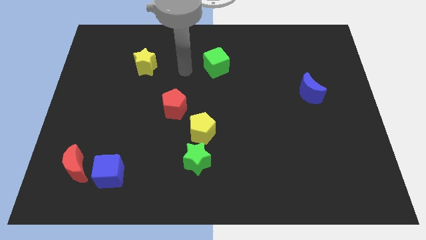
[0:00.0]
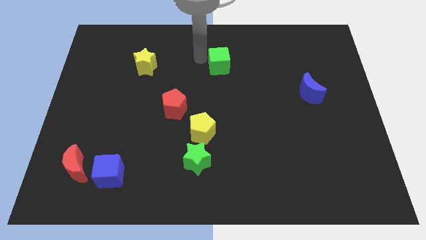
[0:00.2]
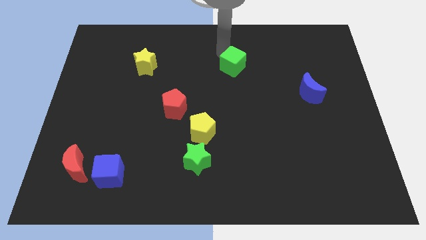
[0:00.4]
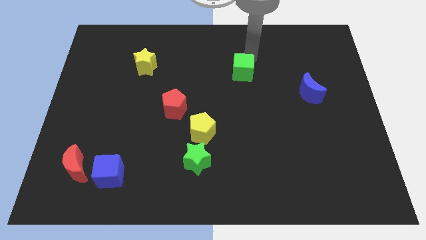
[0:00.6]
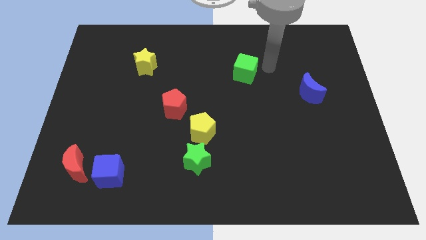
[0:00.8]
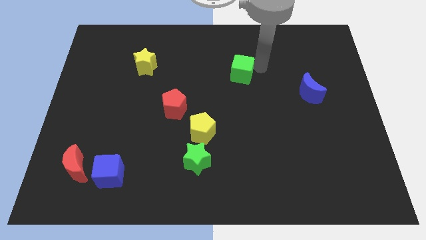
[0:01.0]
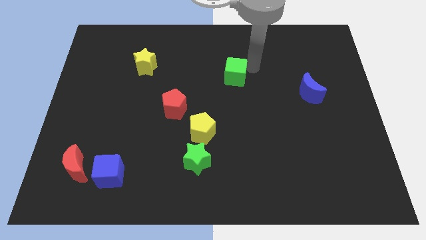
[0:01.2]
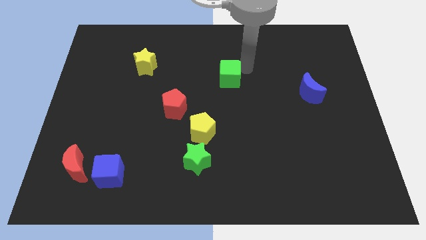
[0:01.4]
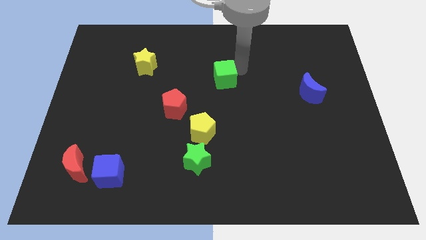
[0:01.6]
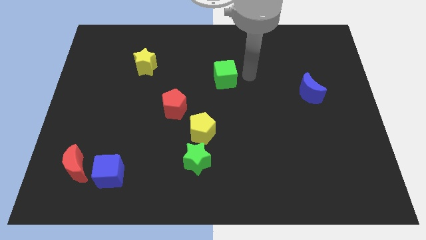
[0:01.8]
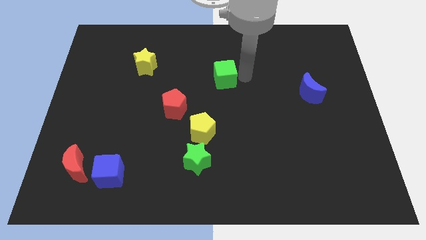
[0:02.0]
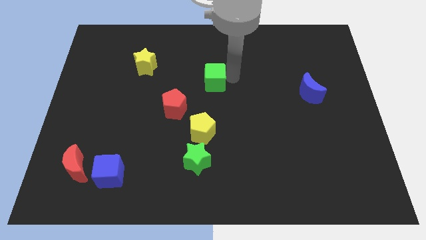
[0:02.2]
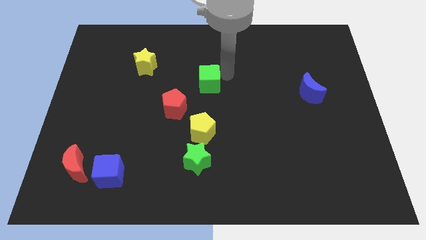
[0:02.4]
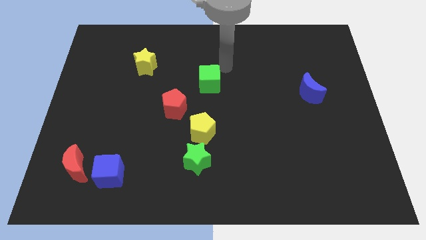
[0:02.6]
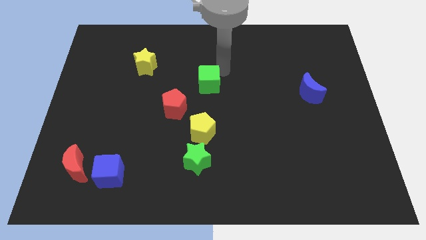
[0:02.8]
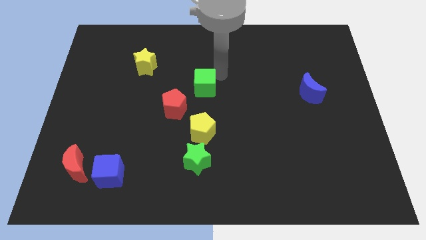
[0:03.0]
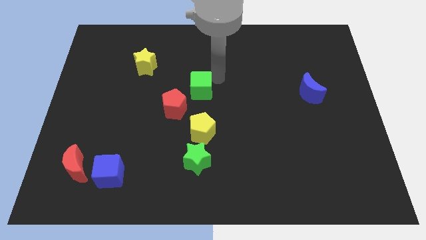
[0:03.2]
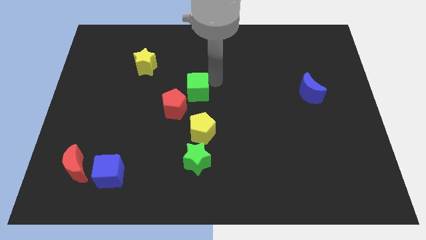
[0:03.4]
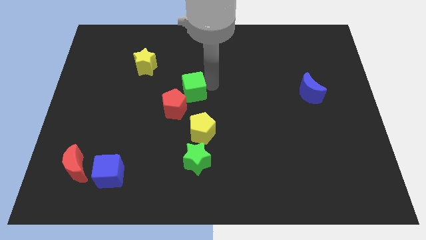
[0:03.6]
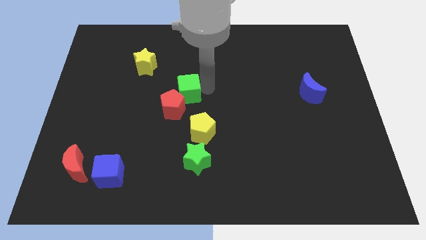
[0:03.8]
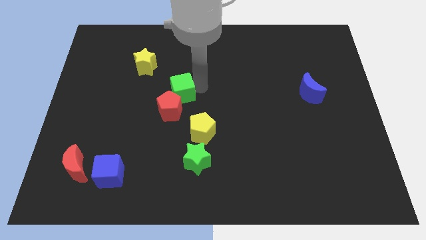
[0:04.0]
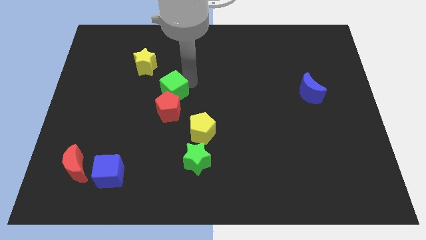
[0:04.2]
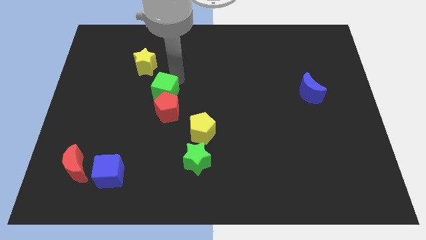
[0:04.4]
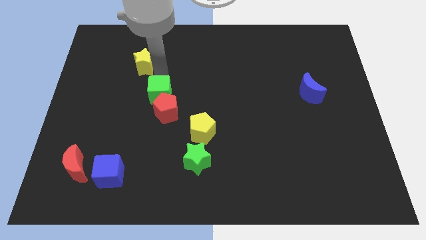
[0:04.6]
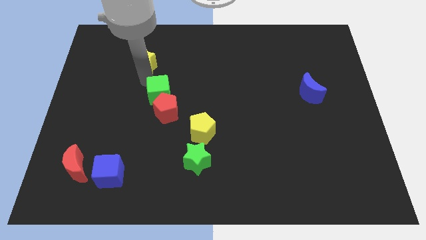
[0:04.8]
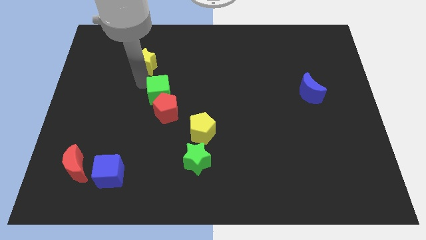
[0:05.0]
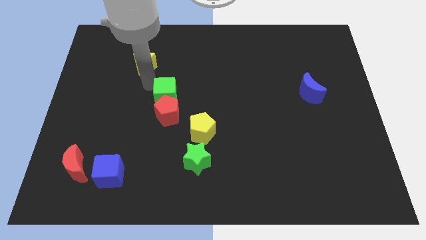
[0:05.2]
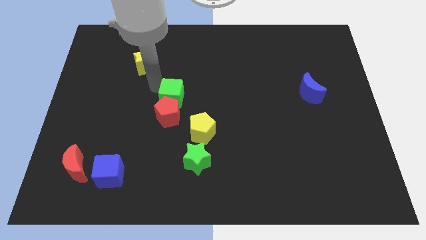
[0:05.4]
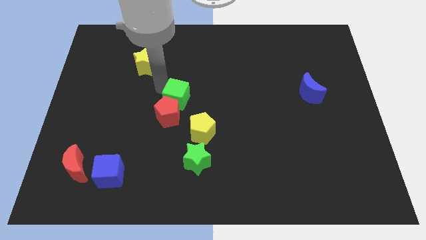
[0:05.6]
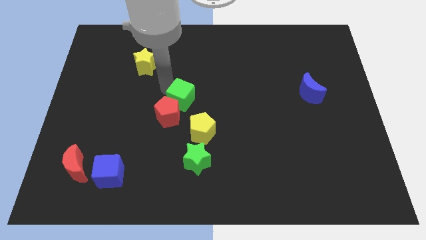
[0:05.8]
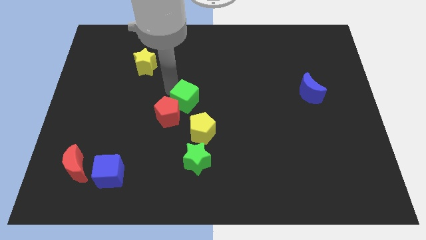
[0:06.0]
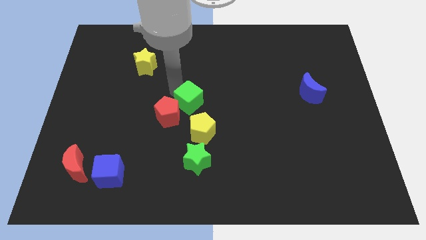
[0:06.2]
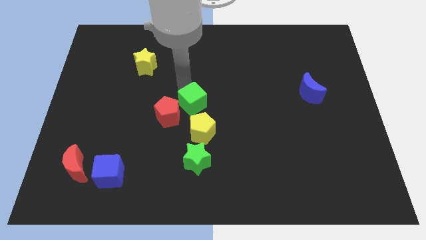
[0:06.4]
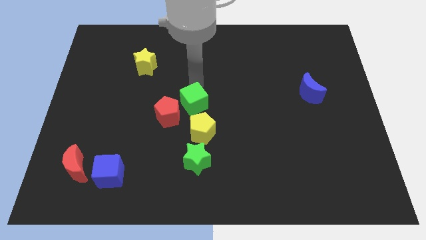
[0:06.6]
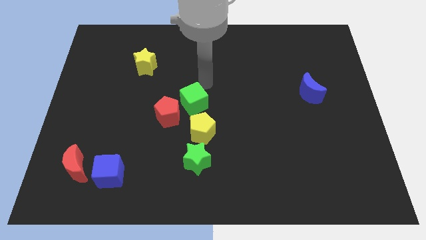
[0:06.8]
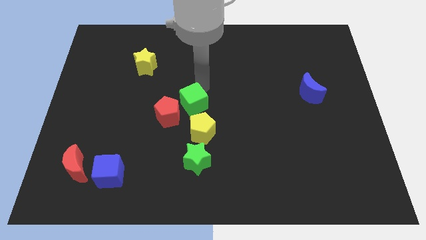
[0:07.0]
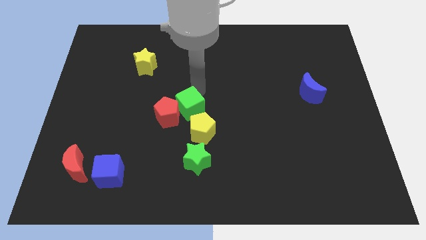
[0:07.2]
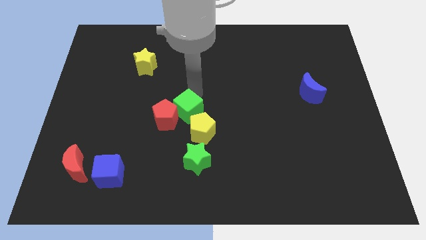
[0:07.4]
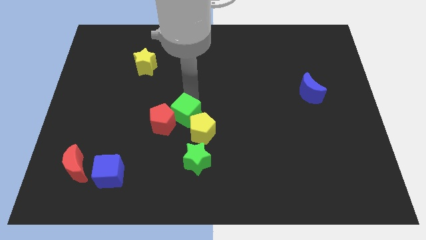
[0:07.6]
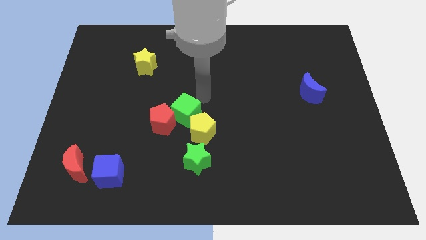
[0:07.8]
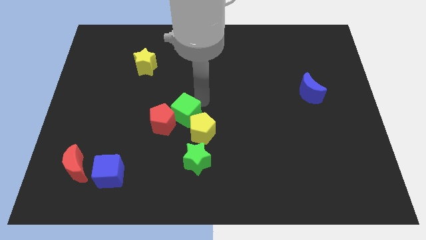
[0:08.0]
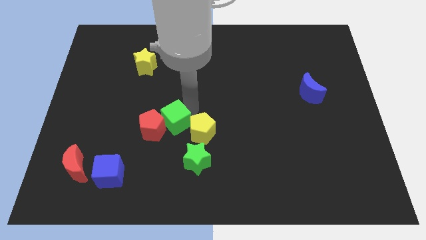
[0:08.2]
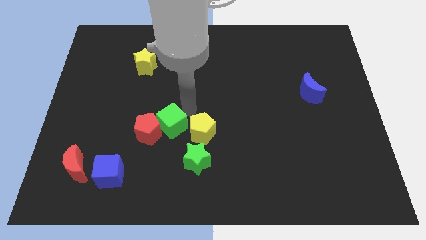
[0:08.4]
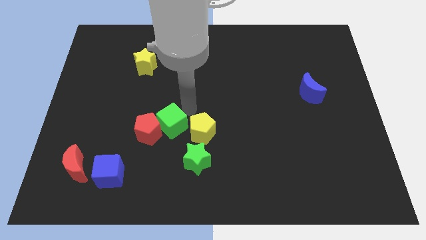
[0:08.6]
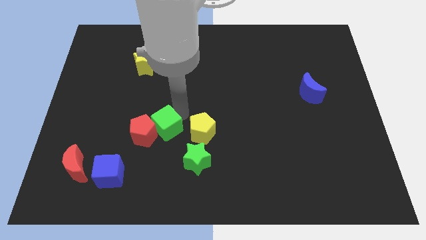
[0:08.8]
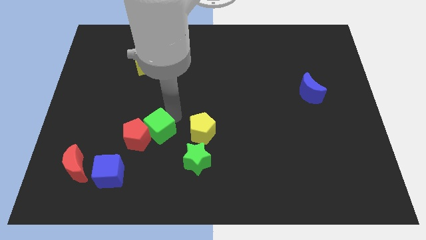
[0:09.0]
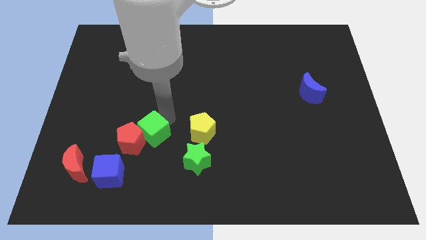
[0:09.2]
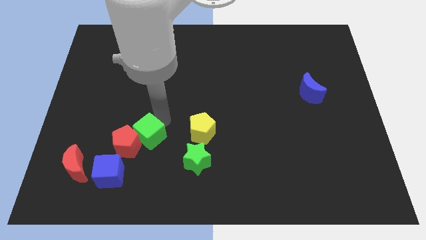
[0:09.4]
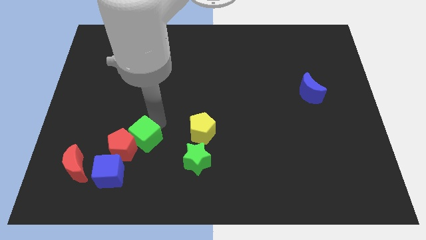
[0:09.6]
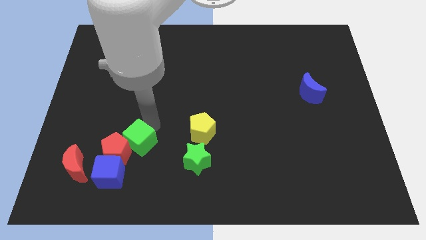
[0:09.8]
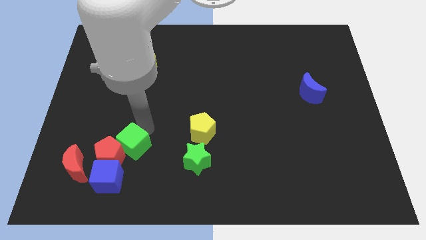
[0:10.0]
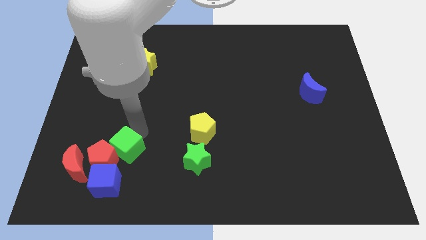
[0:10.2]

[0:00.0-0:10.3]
put the green cube to the right side of the red moon

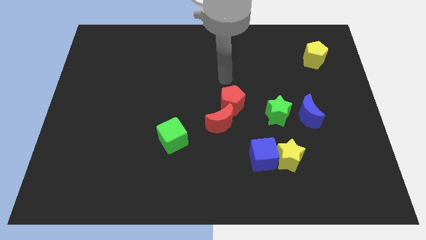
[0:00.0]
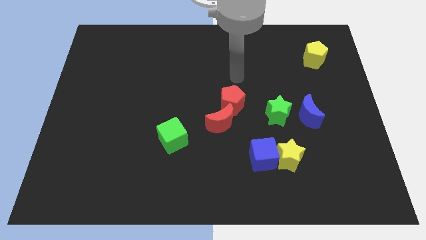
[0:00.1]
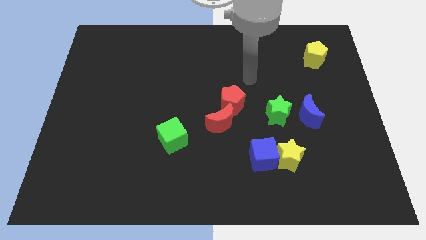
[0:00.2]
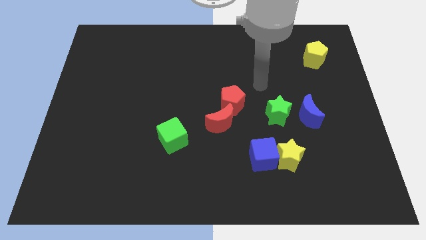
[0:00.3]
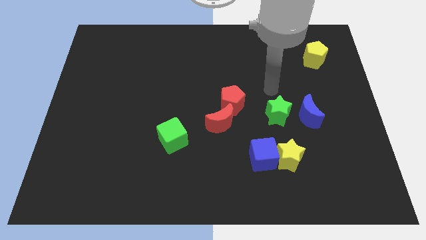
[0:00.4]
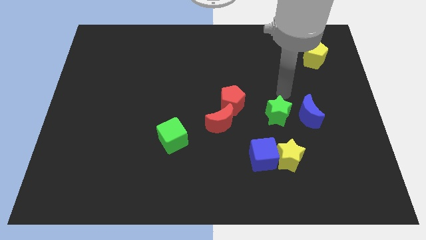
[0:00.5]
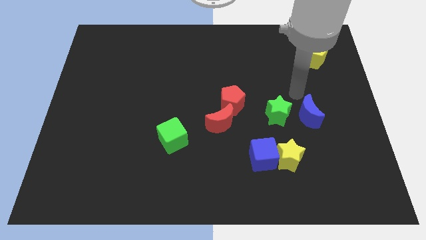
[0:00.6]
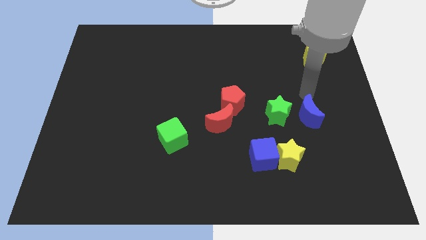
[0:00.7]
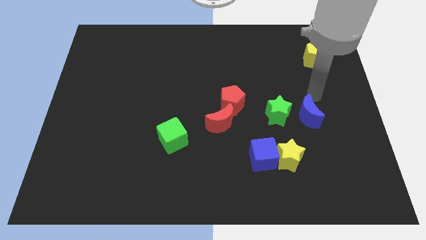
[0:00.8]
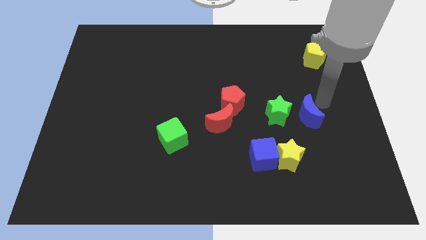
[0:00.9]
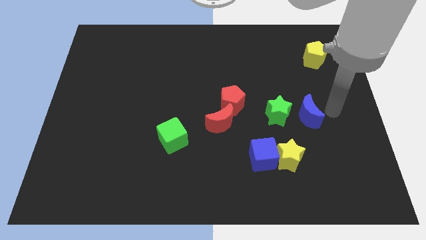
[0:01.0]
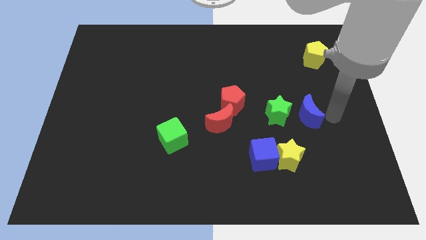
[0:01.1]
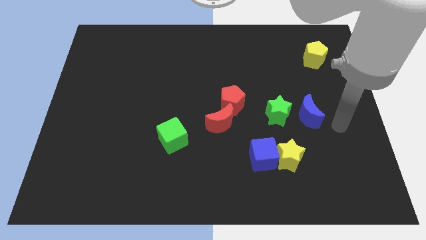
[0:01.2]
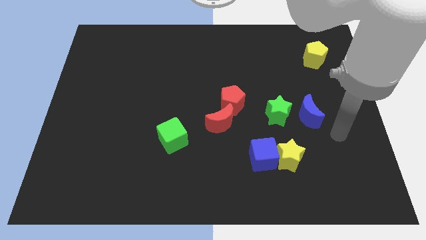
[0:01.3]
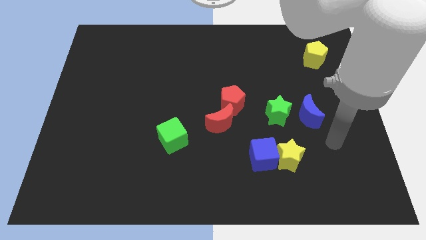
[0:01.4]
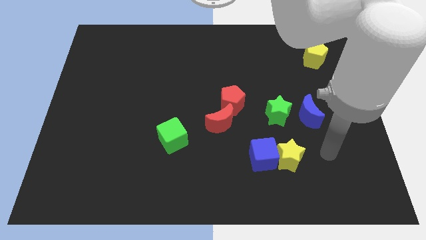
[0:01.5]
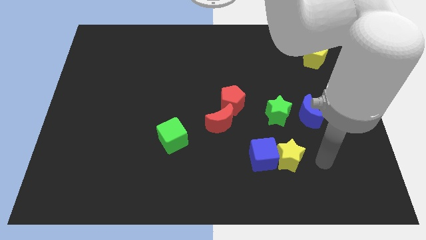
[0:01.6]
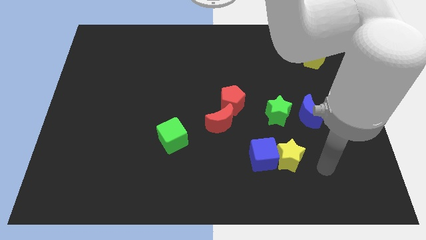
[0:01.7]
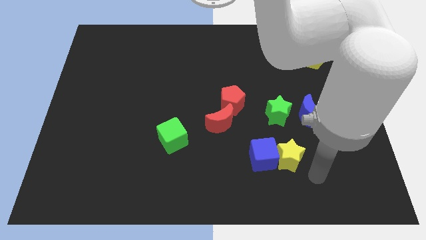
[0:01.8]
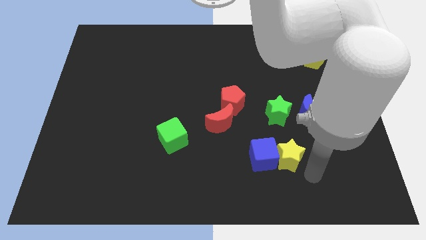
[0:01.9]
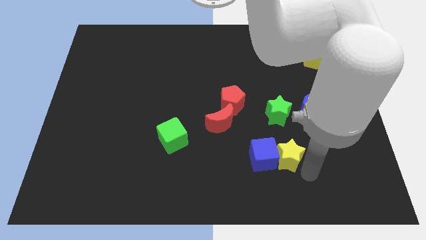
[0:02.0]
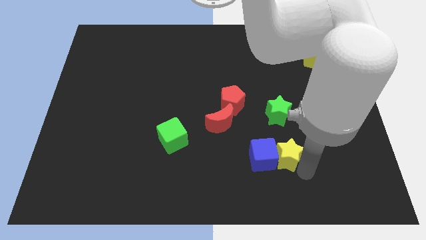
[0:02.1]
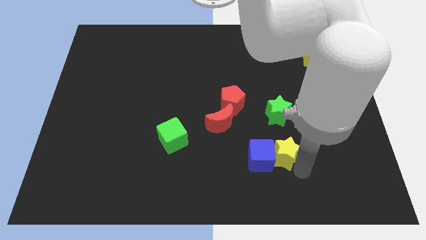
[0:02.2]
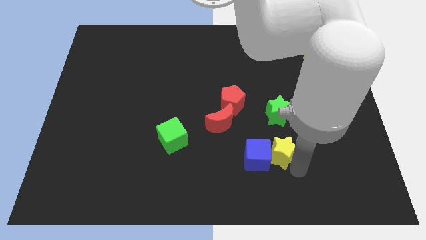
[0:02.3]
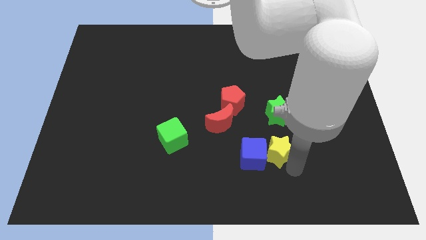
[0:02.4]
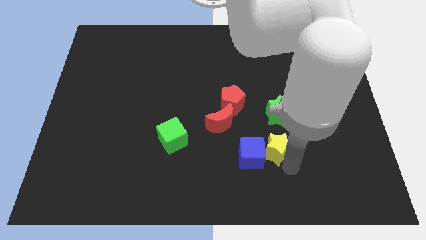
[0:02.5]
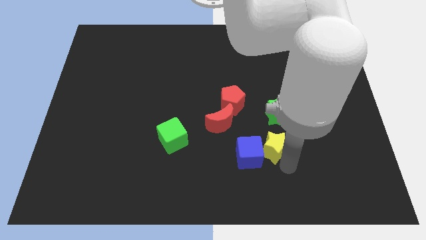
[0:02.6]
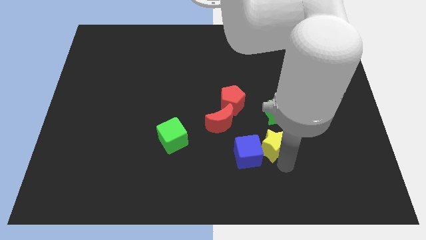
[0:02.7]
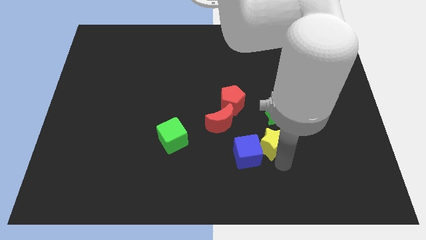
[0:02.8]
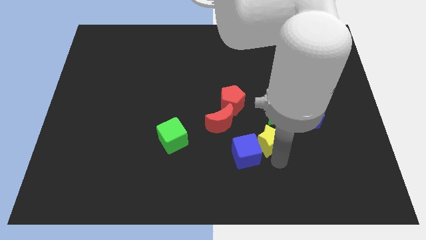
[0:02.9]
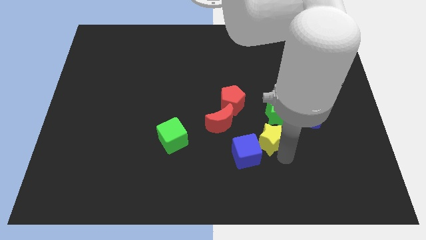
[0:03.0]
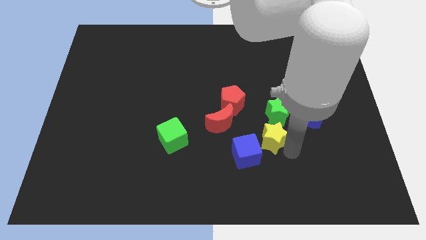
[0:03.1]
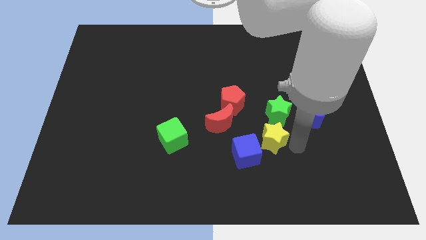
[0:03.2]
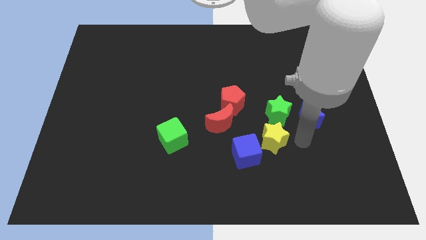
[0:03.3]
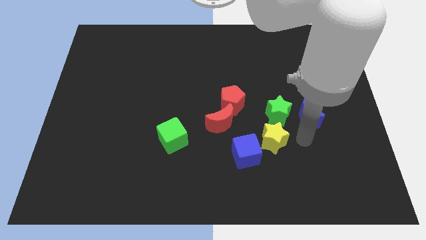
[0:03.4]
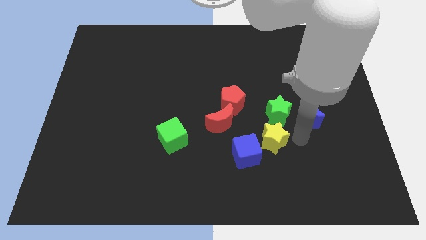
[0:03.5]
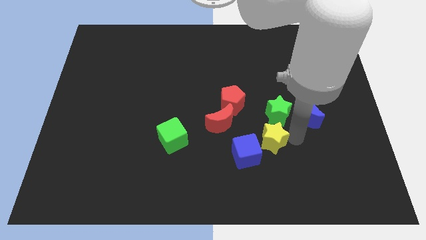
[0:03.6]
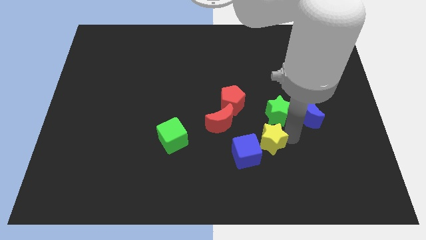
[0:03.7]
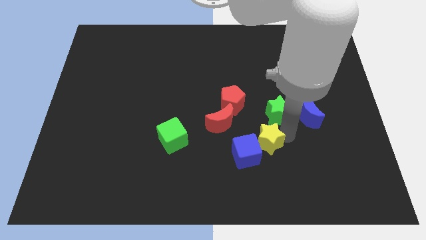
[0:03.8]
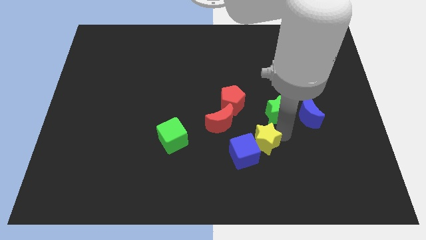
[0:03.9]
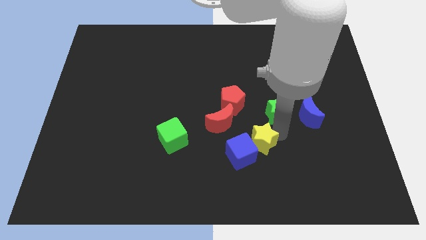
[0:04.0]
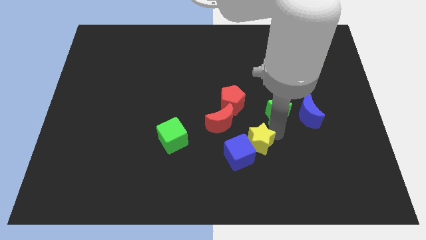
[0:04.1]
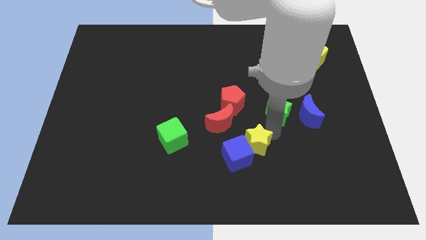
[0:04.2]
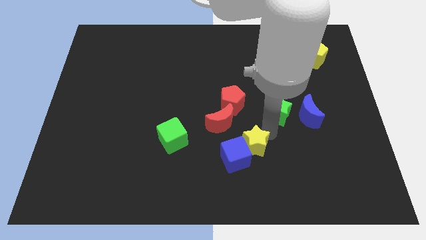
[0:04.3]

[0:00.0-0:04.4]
move the yellow star to the bottom of the red pentagon
